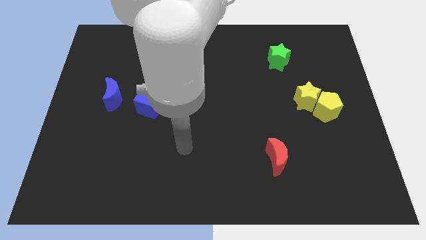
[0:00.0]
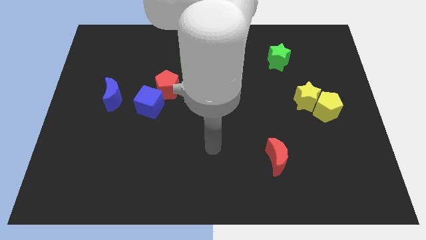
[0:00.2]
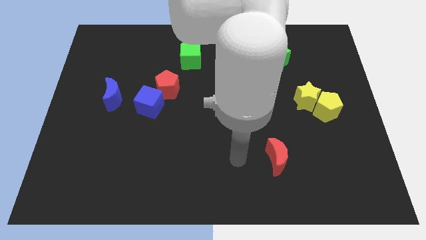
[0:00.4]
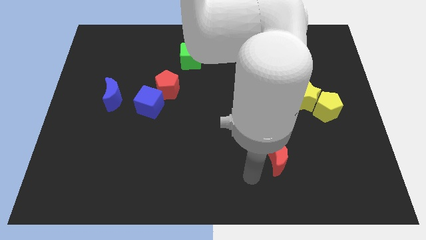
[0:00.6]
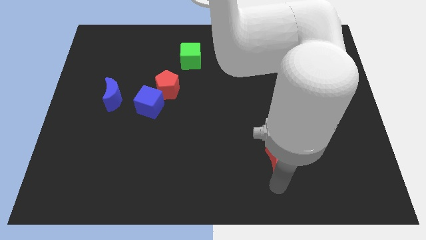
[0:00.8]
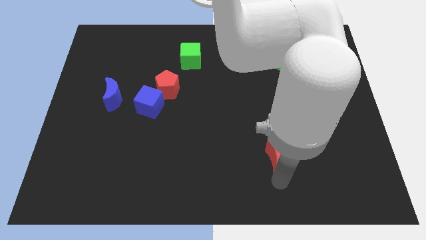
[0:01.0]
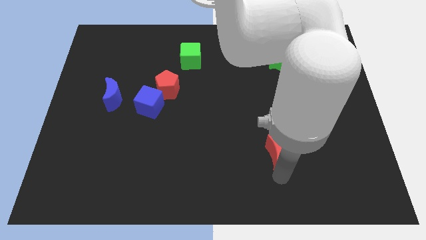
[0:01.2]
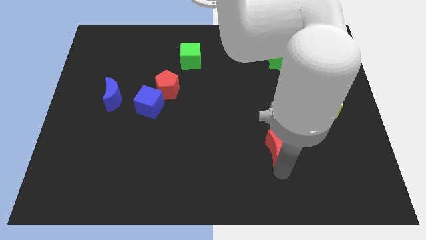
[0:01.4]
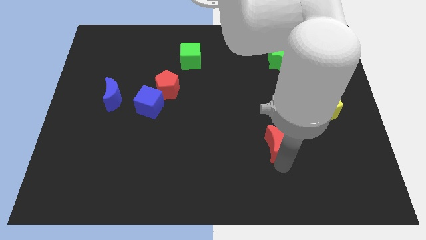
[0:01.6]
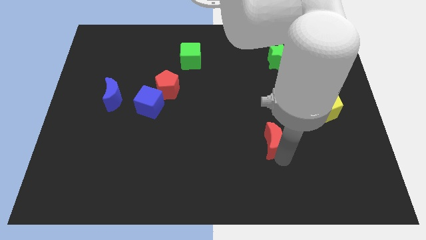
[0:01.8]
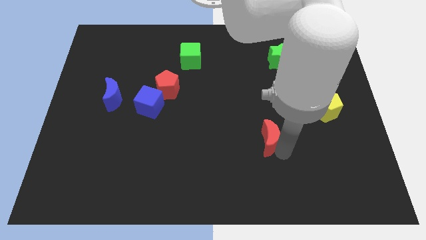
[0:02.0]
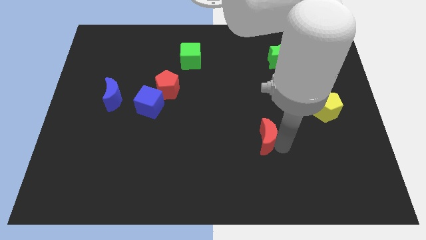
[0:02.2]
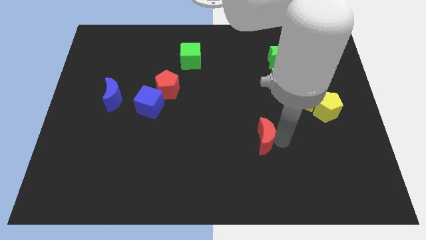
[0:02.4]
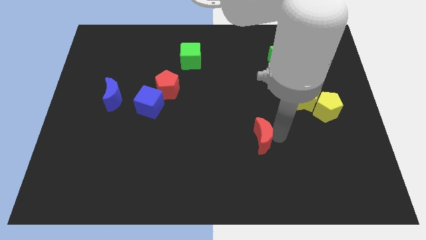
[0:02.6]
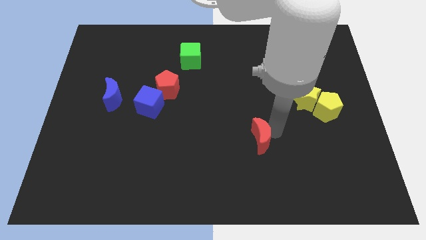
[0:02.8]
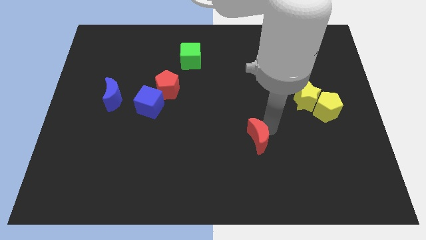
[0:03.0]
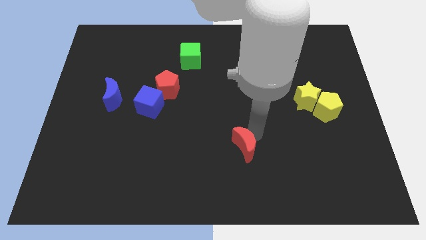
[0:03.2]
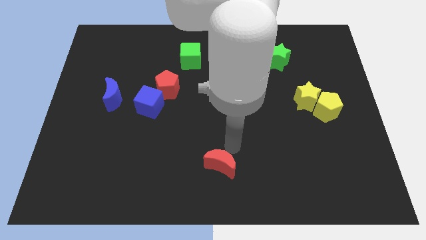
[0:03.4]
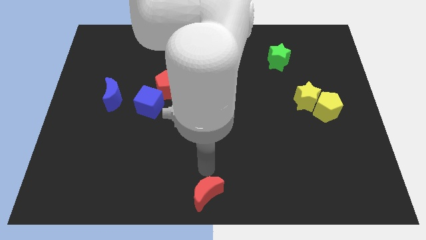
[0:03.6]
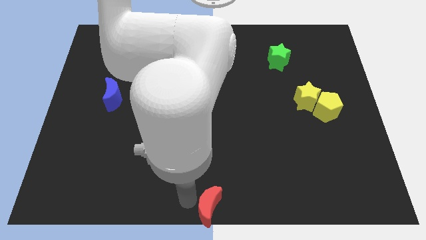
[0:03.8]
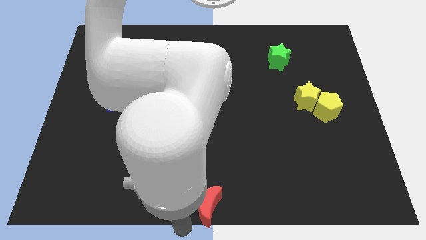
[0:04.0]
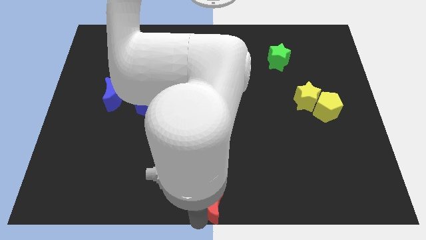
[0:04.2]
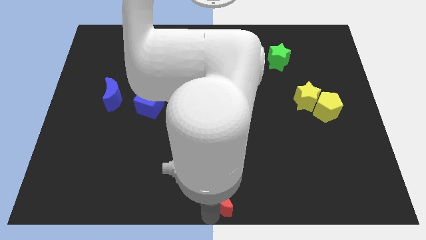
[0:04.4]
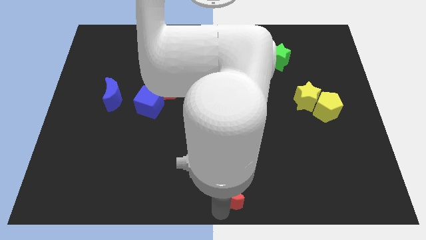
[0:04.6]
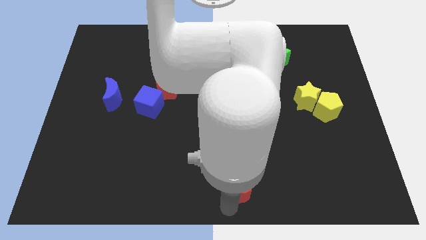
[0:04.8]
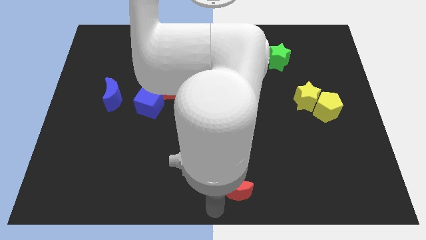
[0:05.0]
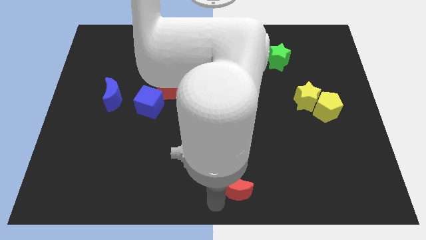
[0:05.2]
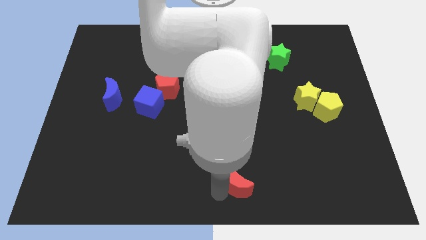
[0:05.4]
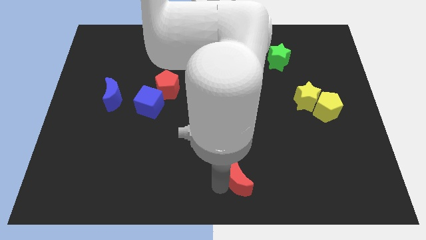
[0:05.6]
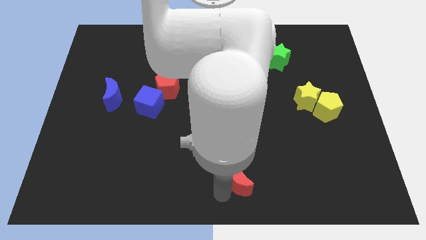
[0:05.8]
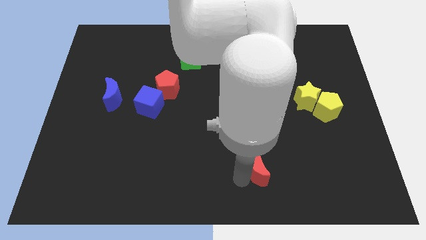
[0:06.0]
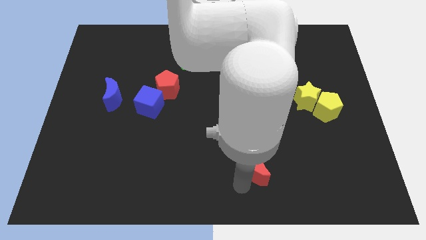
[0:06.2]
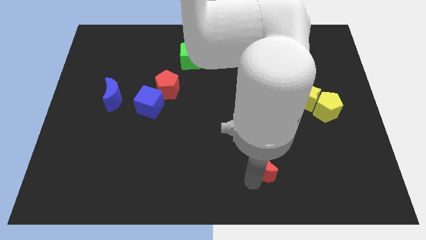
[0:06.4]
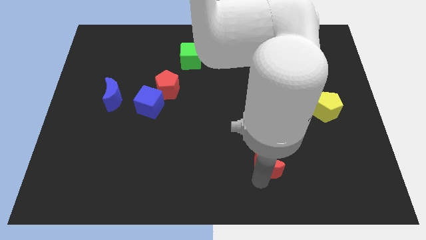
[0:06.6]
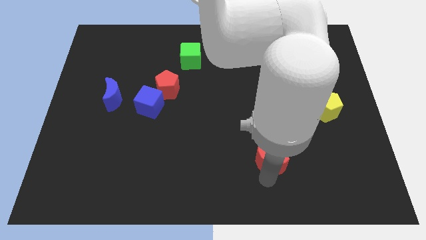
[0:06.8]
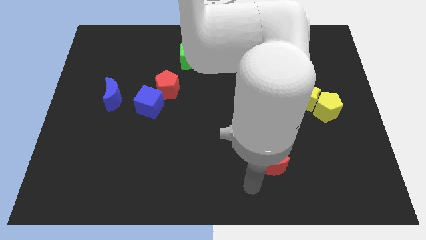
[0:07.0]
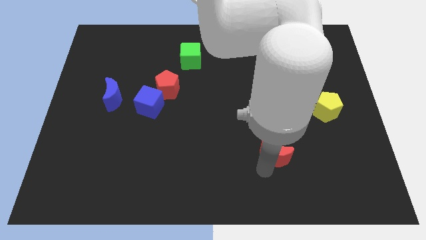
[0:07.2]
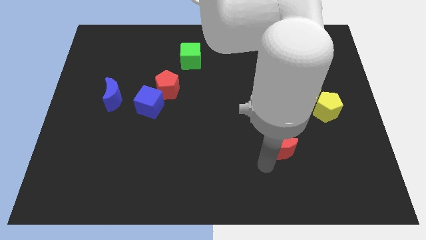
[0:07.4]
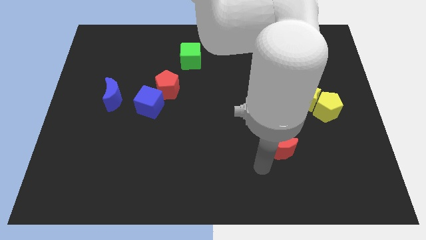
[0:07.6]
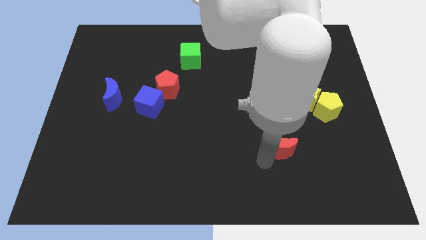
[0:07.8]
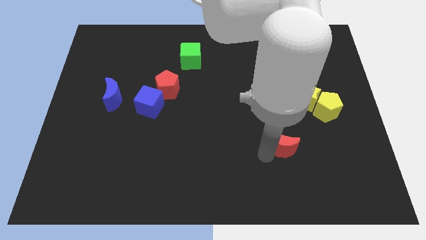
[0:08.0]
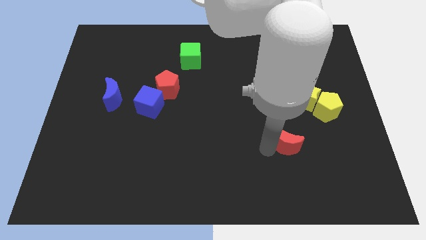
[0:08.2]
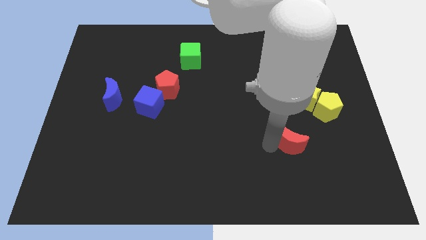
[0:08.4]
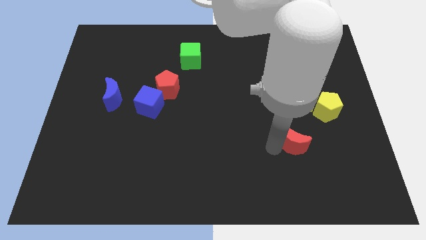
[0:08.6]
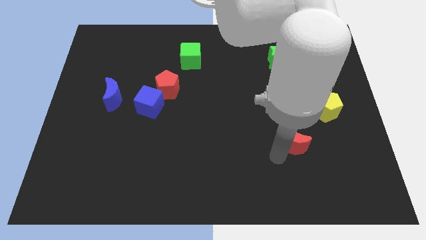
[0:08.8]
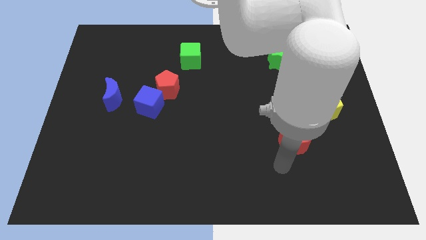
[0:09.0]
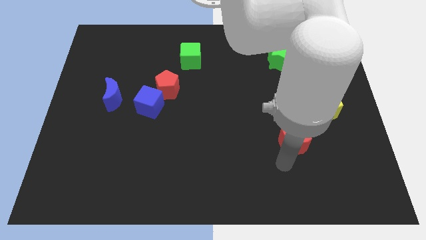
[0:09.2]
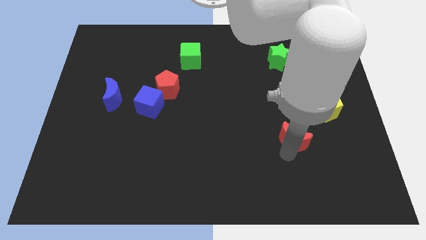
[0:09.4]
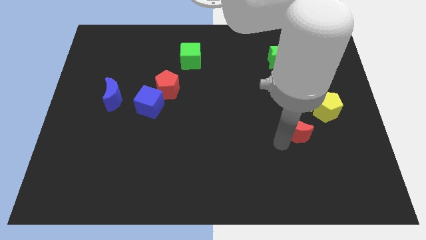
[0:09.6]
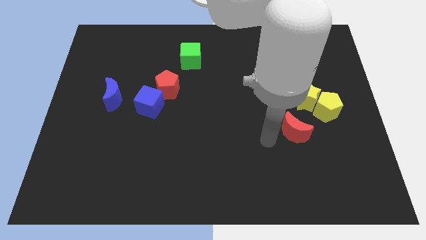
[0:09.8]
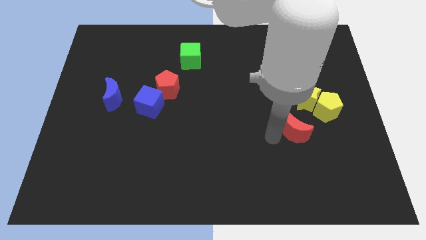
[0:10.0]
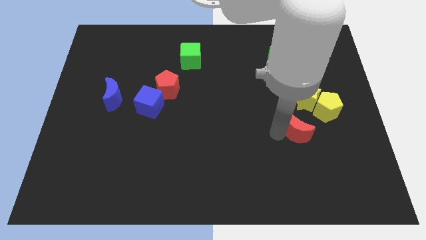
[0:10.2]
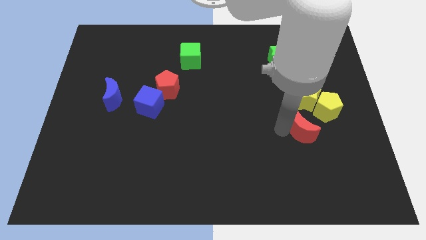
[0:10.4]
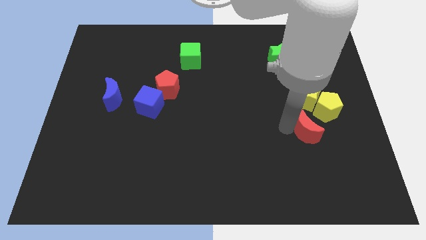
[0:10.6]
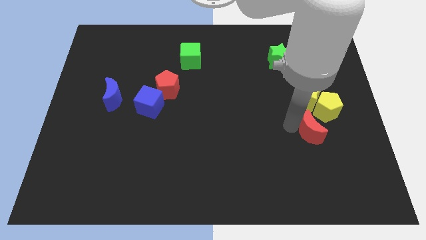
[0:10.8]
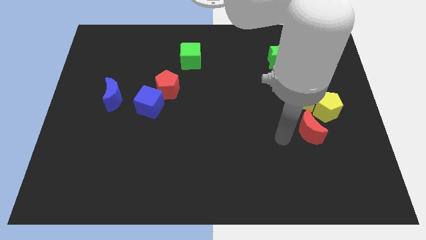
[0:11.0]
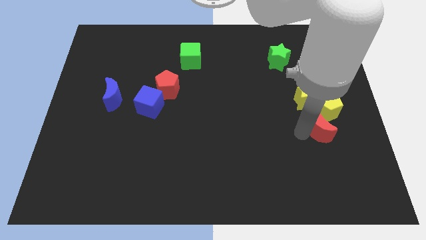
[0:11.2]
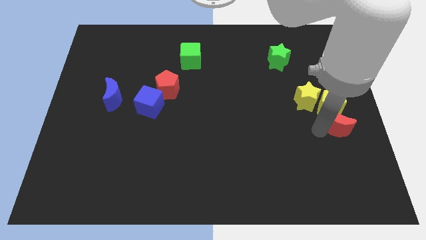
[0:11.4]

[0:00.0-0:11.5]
put the red moon to the right side of the board
